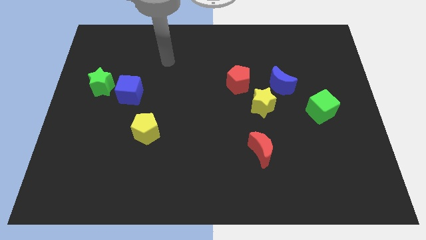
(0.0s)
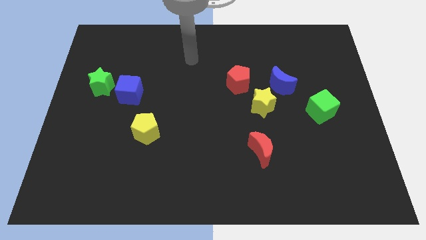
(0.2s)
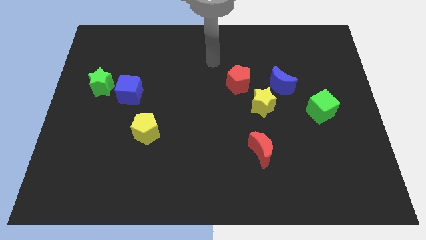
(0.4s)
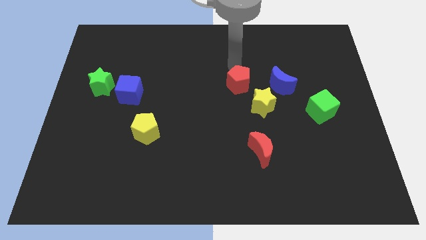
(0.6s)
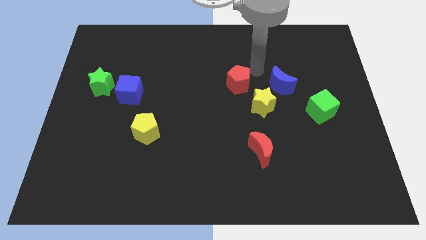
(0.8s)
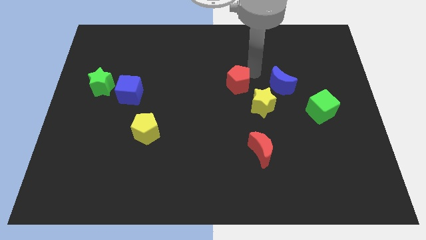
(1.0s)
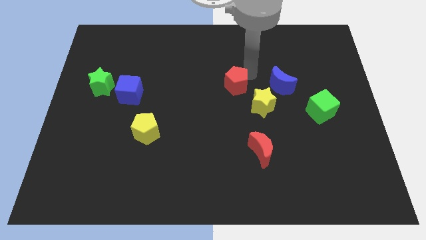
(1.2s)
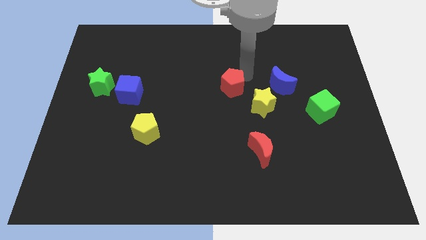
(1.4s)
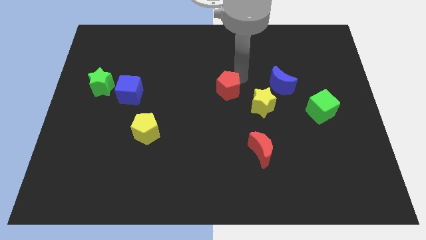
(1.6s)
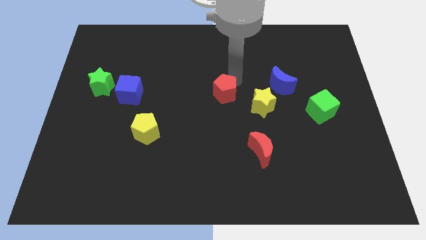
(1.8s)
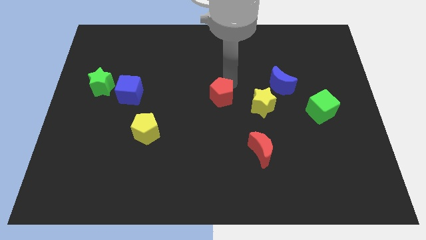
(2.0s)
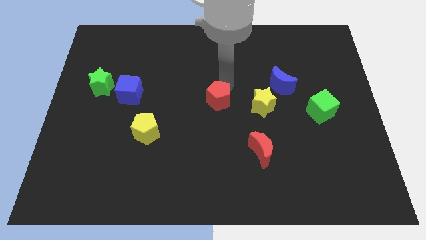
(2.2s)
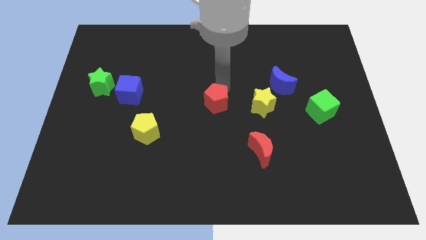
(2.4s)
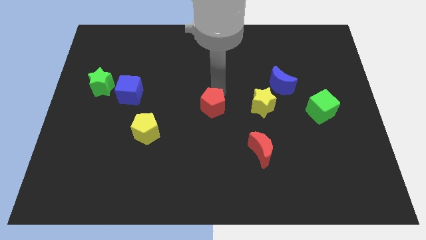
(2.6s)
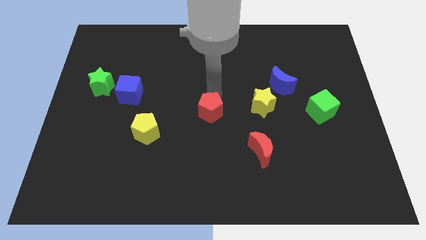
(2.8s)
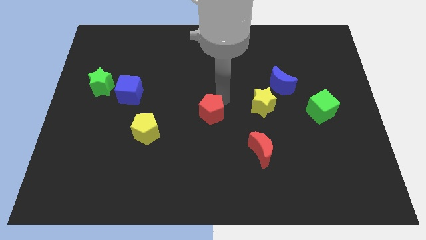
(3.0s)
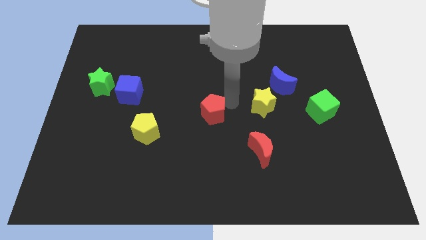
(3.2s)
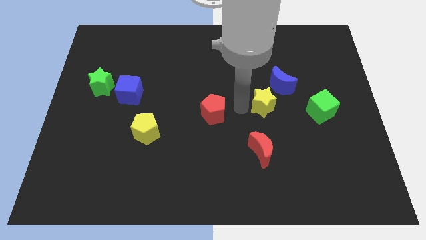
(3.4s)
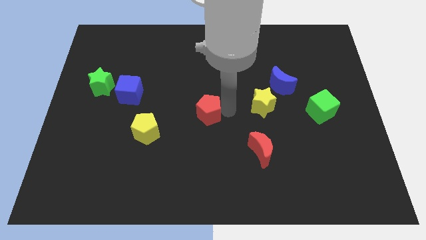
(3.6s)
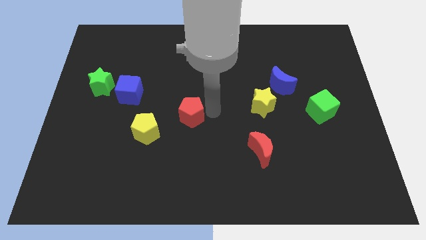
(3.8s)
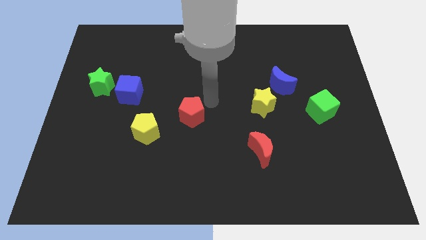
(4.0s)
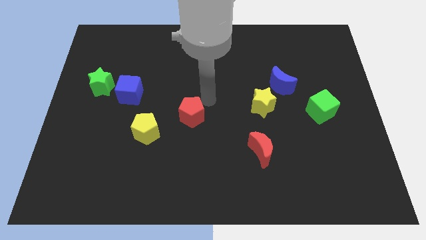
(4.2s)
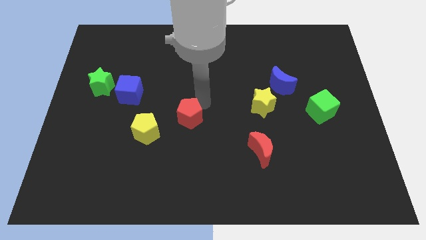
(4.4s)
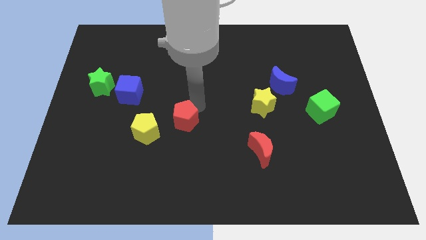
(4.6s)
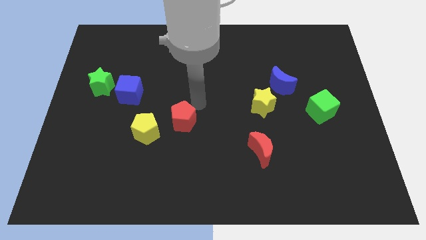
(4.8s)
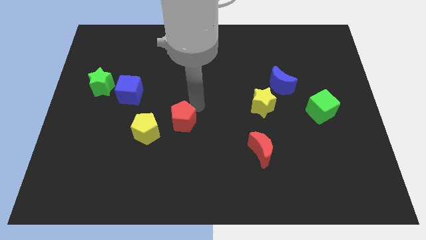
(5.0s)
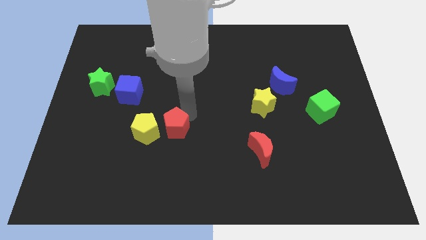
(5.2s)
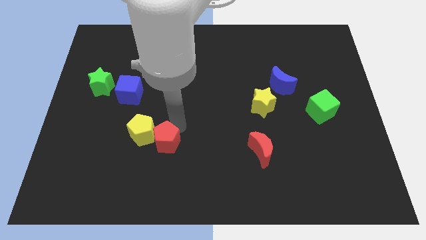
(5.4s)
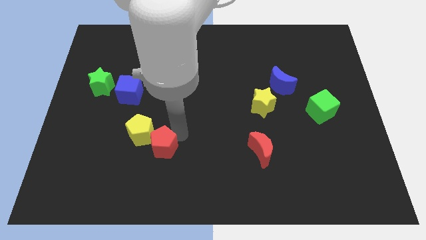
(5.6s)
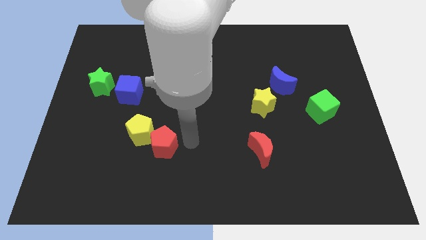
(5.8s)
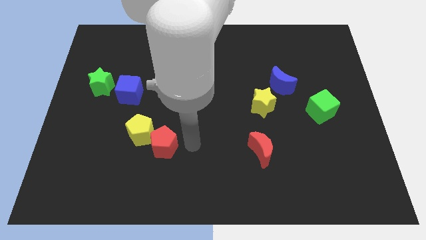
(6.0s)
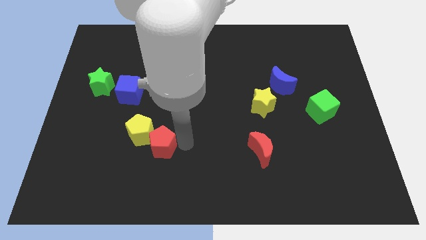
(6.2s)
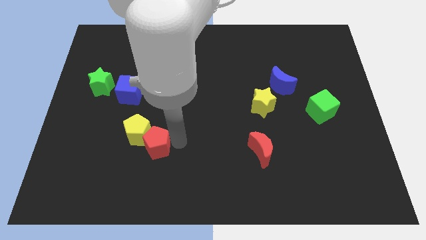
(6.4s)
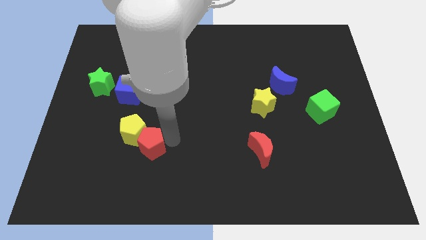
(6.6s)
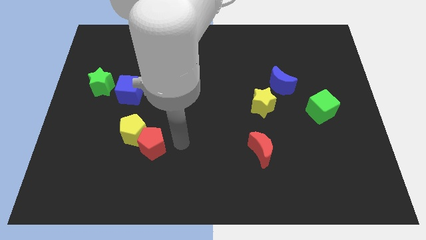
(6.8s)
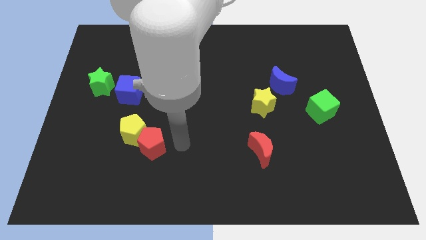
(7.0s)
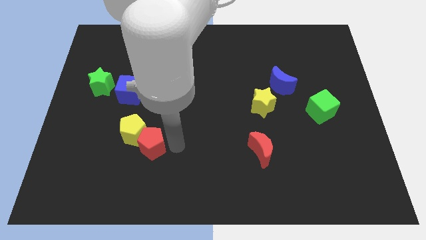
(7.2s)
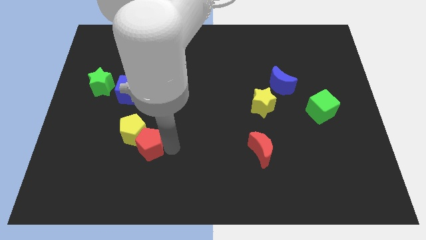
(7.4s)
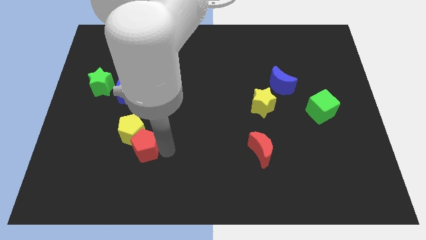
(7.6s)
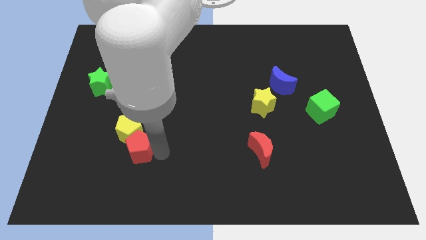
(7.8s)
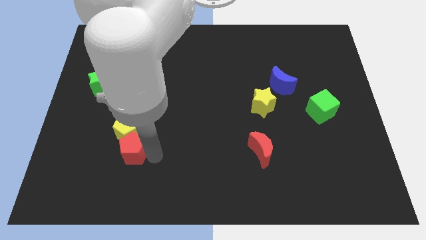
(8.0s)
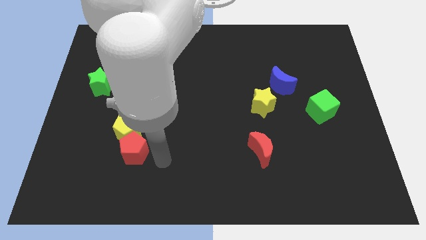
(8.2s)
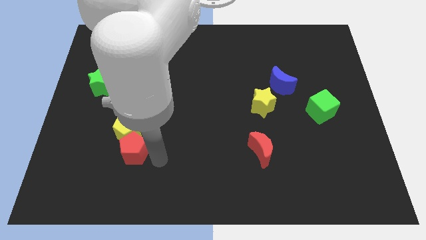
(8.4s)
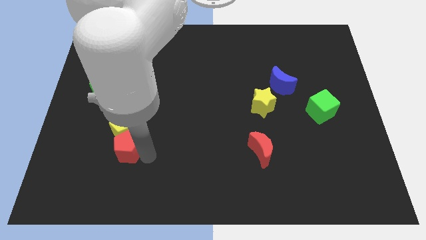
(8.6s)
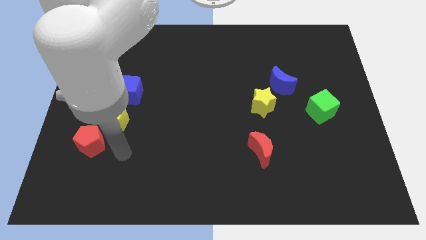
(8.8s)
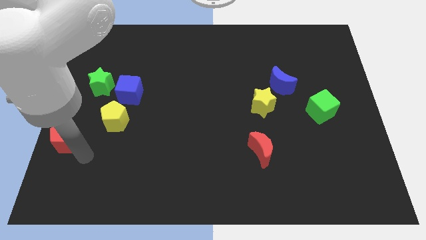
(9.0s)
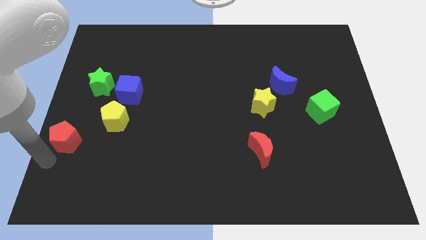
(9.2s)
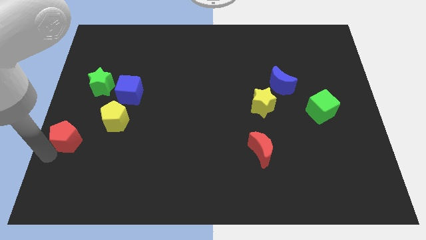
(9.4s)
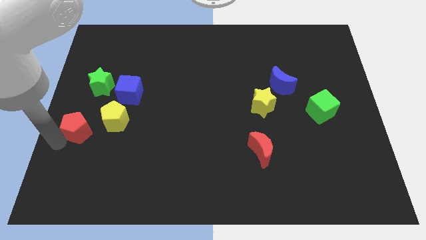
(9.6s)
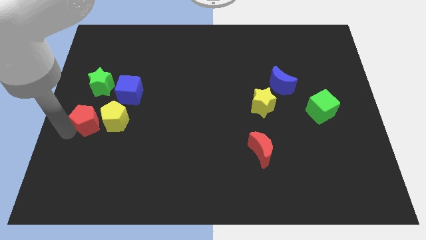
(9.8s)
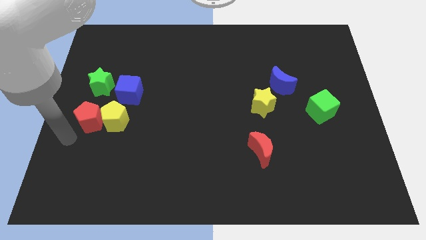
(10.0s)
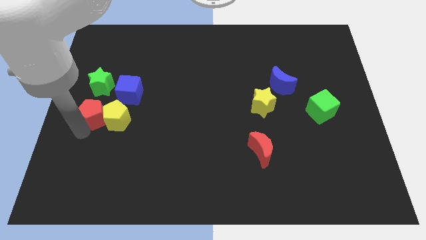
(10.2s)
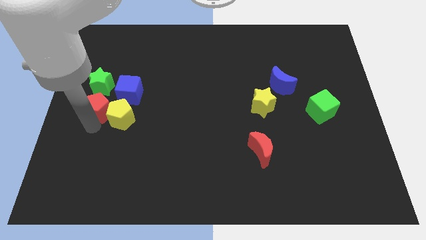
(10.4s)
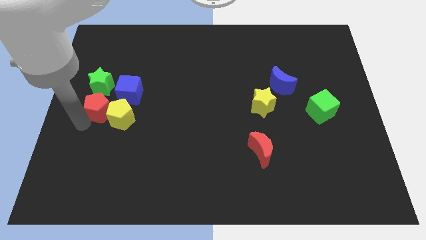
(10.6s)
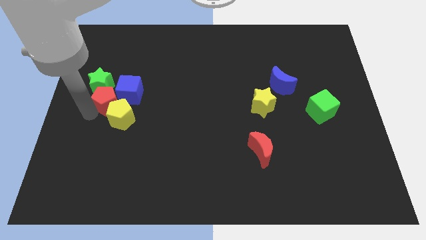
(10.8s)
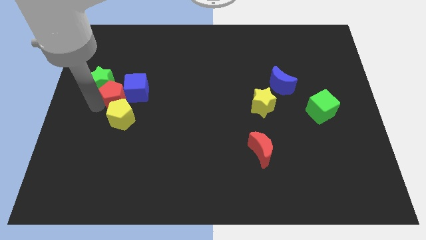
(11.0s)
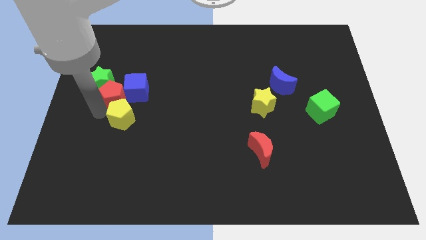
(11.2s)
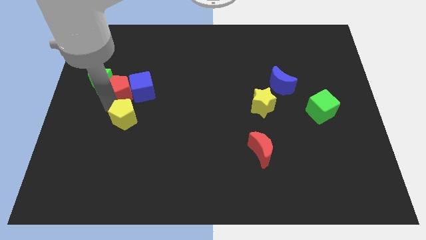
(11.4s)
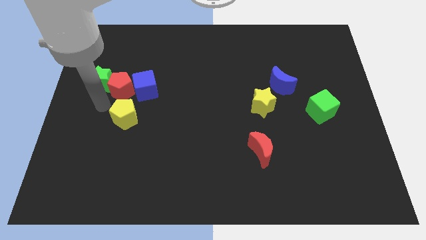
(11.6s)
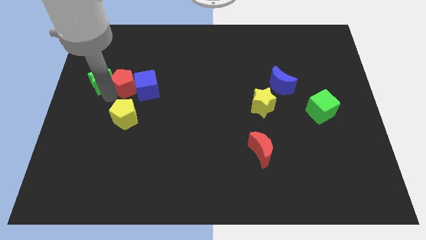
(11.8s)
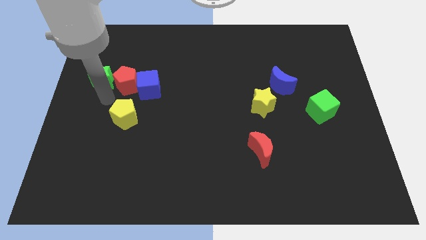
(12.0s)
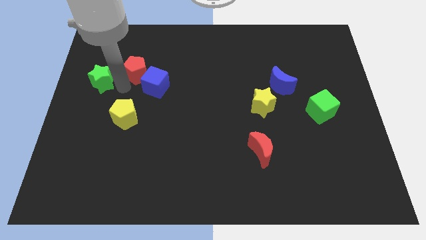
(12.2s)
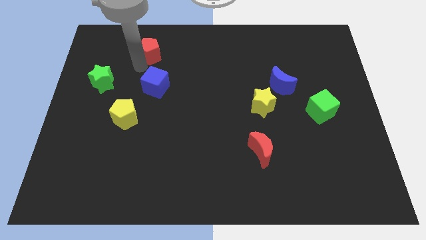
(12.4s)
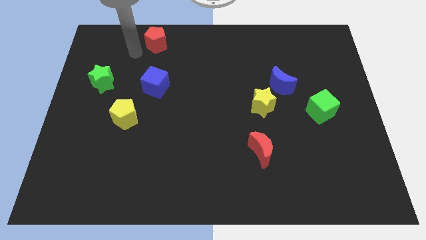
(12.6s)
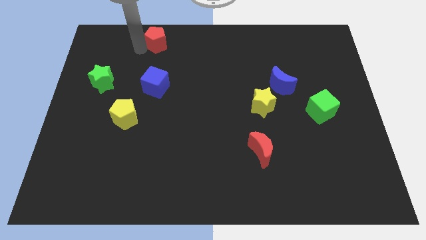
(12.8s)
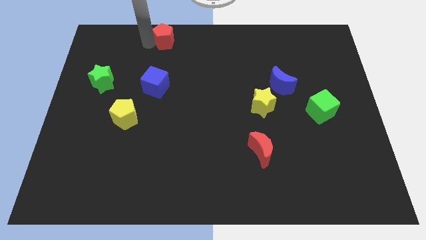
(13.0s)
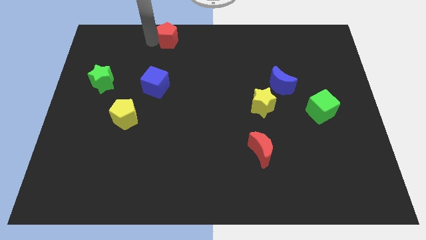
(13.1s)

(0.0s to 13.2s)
move the red pentagon to the towards your base
